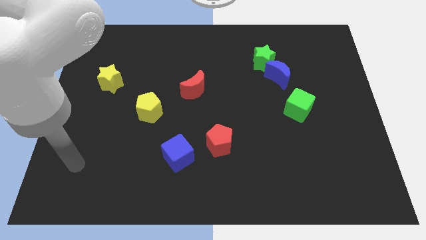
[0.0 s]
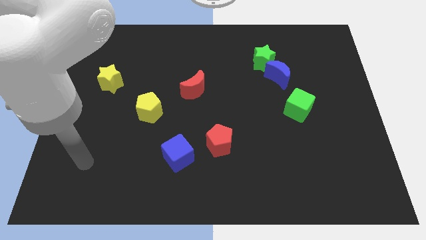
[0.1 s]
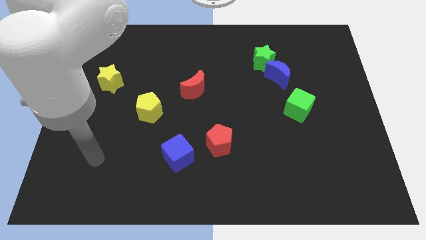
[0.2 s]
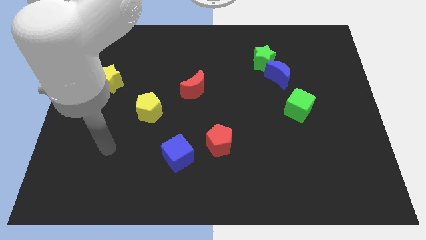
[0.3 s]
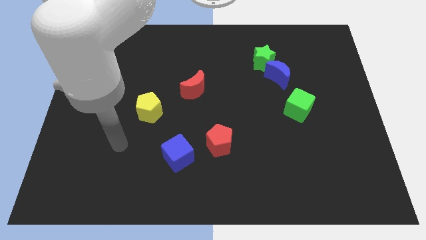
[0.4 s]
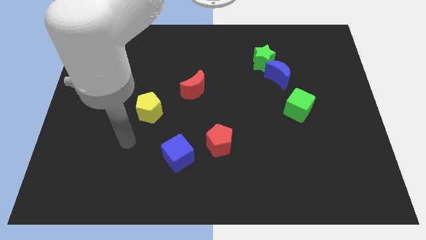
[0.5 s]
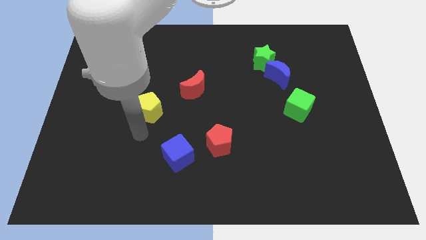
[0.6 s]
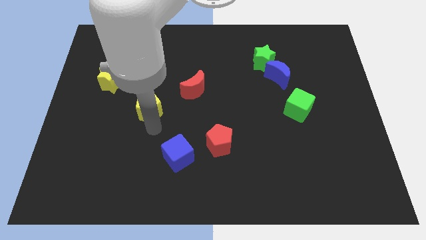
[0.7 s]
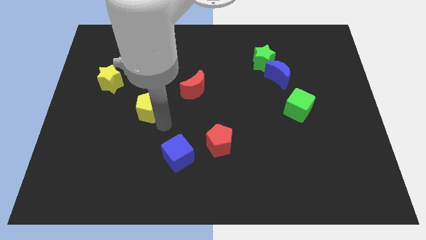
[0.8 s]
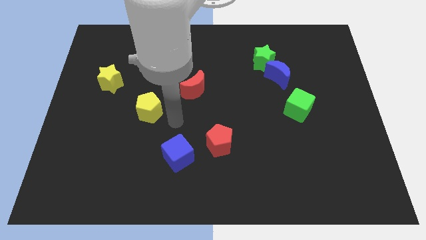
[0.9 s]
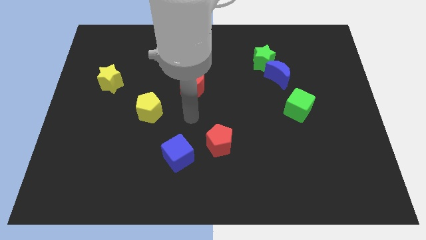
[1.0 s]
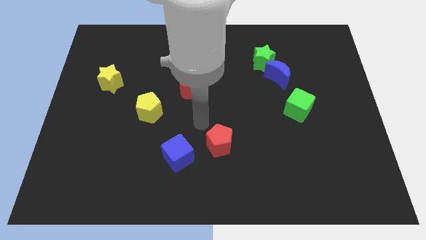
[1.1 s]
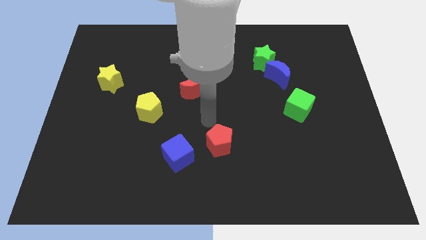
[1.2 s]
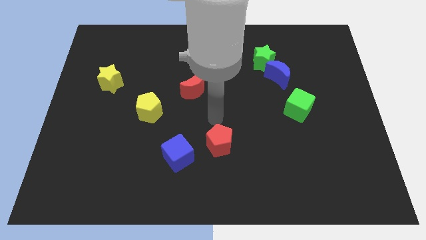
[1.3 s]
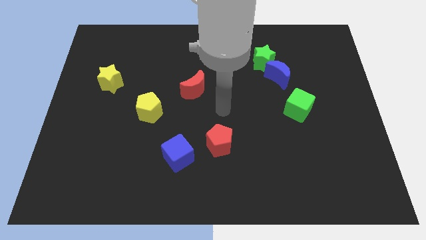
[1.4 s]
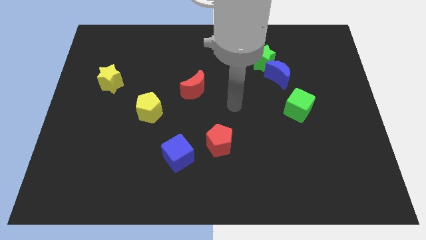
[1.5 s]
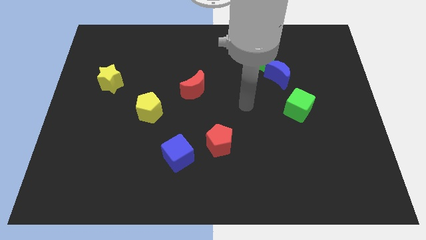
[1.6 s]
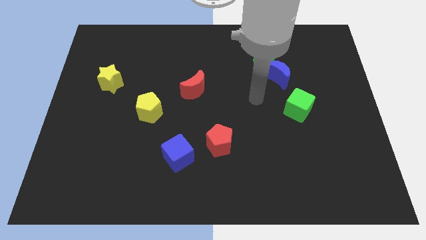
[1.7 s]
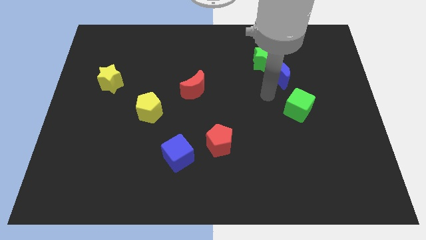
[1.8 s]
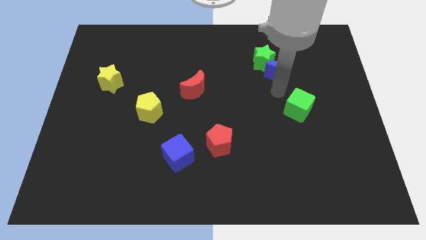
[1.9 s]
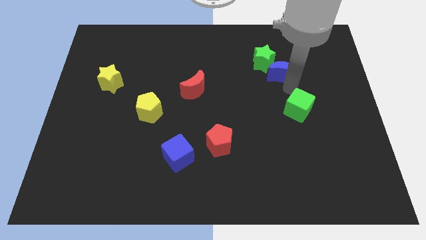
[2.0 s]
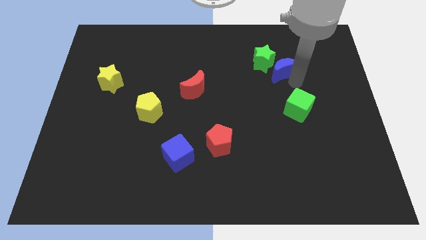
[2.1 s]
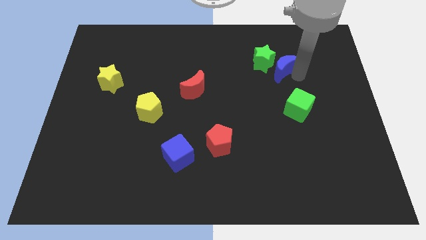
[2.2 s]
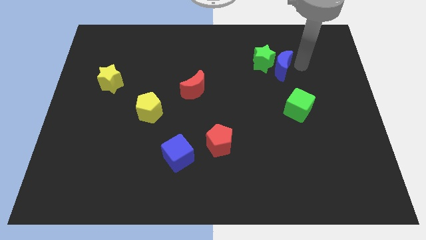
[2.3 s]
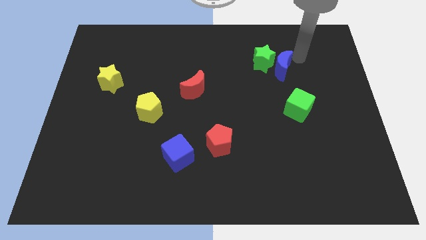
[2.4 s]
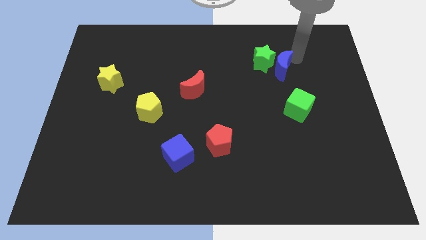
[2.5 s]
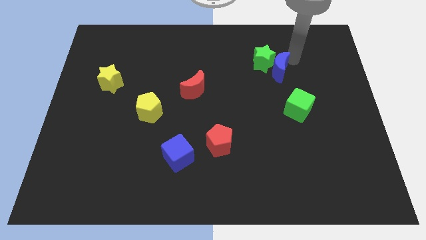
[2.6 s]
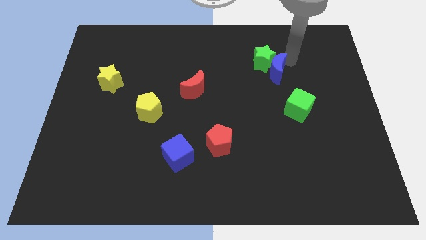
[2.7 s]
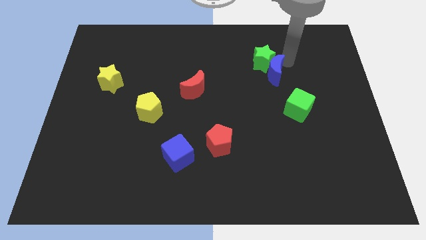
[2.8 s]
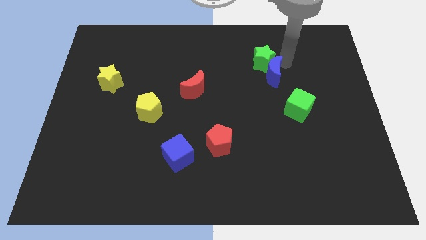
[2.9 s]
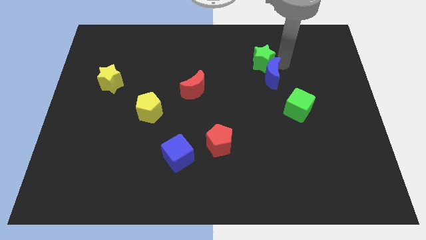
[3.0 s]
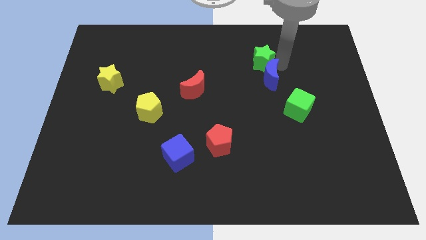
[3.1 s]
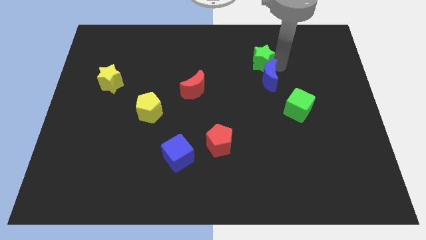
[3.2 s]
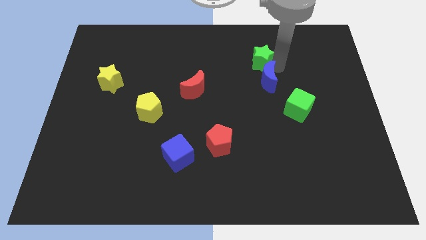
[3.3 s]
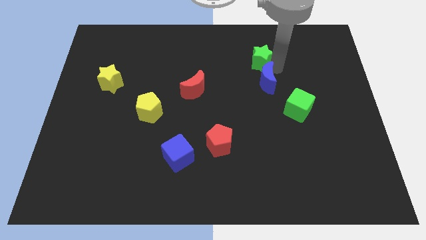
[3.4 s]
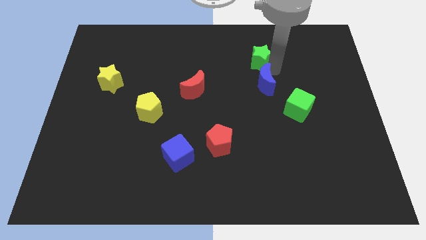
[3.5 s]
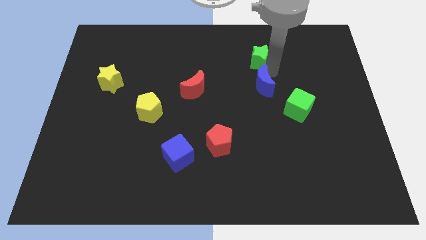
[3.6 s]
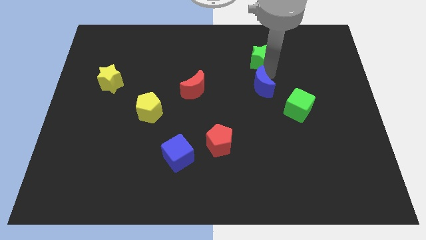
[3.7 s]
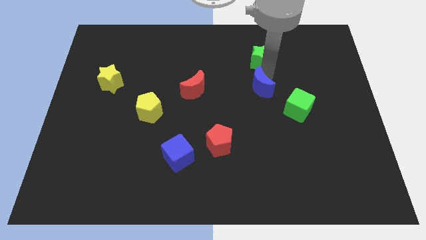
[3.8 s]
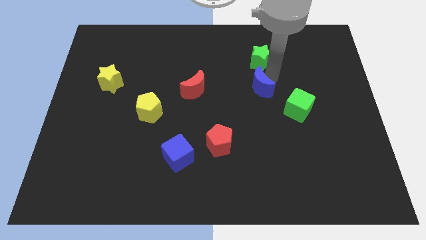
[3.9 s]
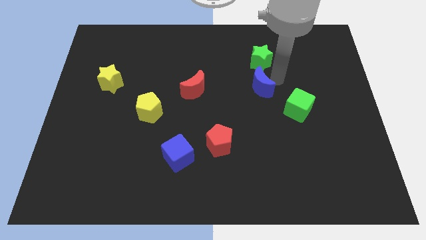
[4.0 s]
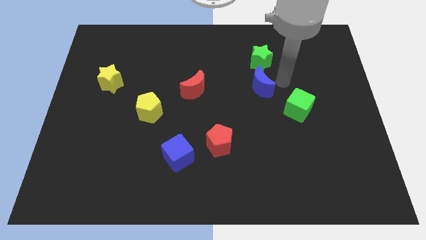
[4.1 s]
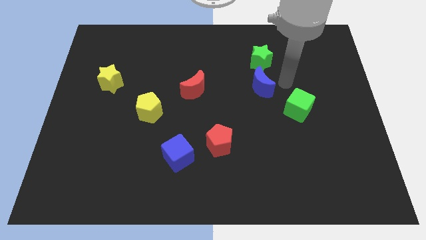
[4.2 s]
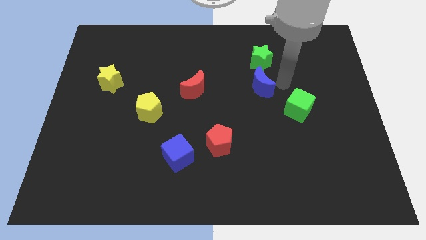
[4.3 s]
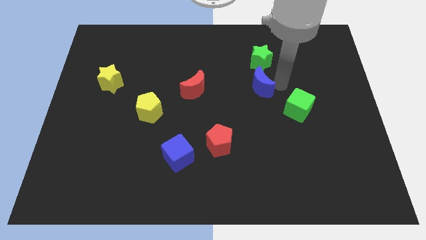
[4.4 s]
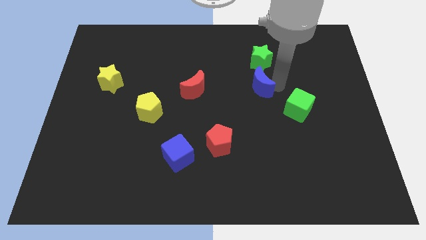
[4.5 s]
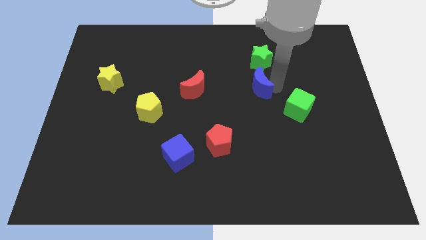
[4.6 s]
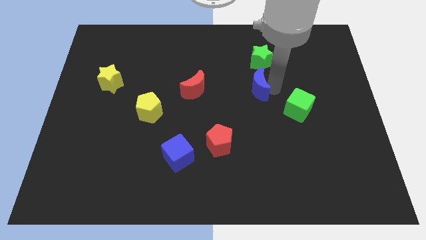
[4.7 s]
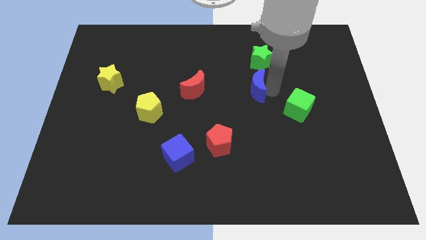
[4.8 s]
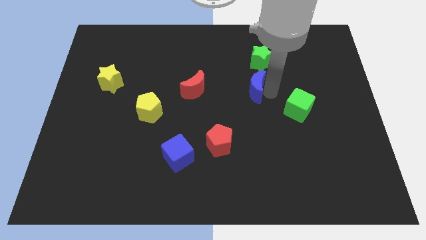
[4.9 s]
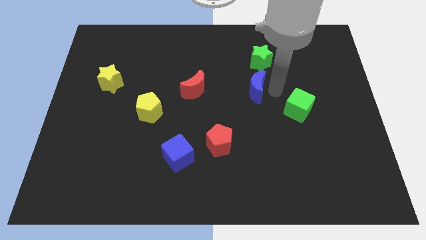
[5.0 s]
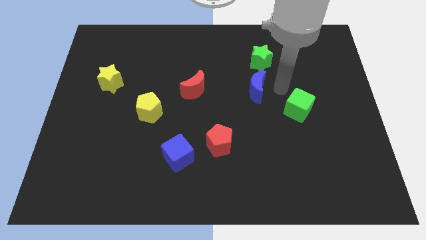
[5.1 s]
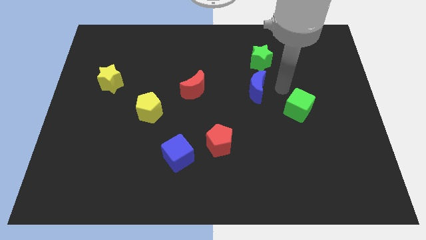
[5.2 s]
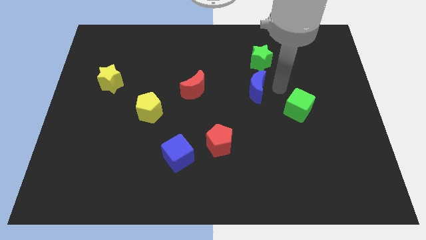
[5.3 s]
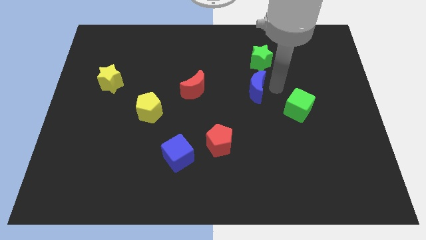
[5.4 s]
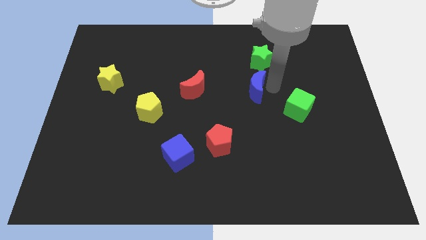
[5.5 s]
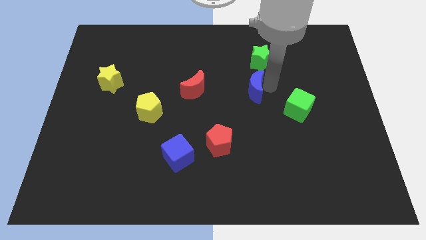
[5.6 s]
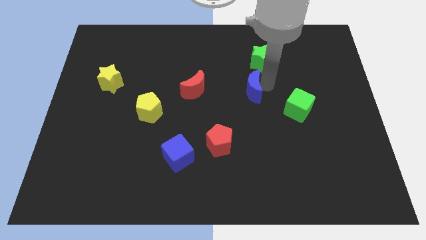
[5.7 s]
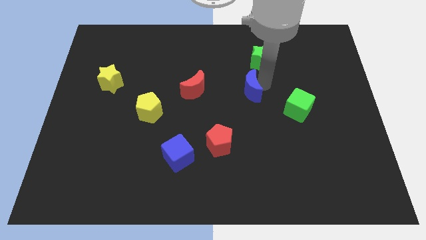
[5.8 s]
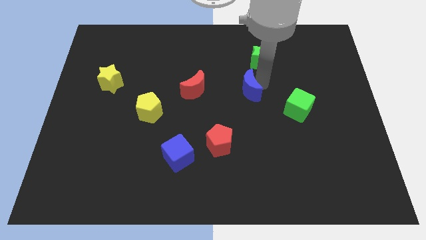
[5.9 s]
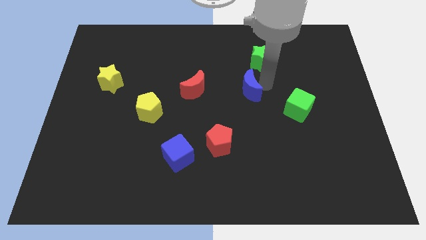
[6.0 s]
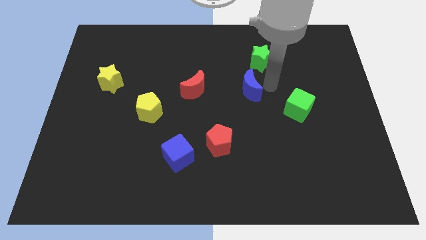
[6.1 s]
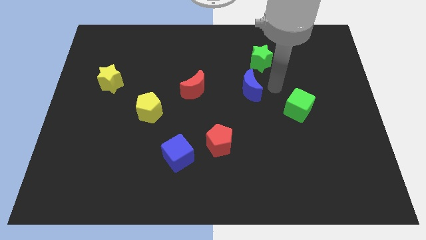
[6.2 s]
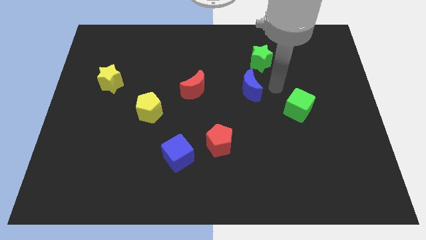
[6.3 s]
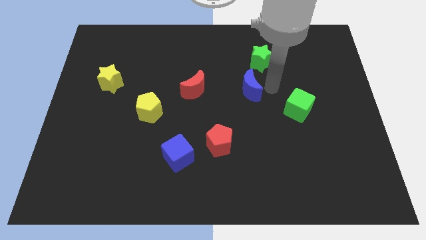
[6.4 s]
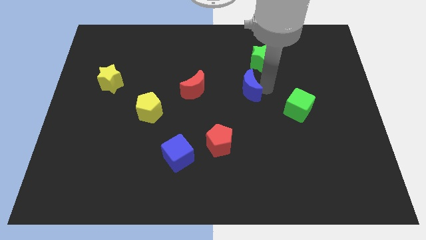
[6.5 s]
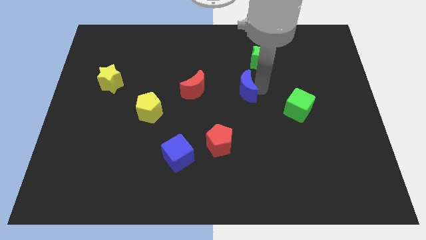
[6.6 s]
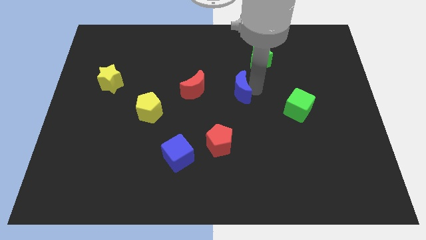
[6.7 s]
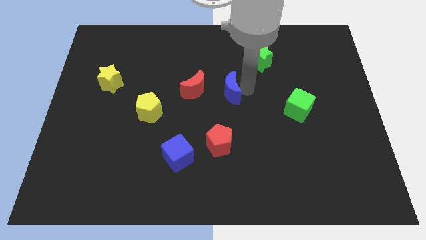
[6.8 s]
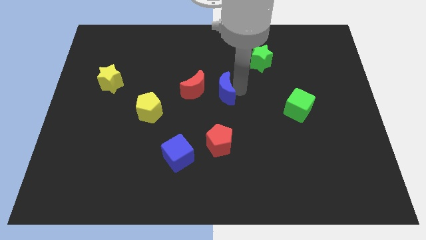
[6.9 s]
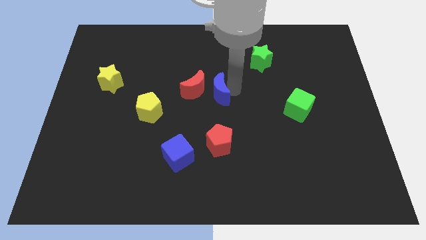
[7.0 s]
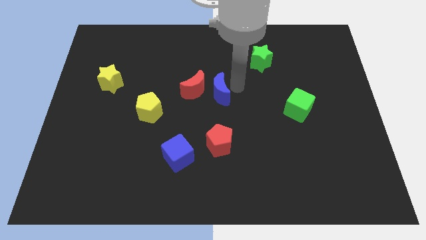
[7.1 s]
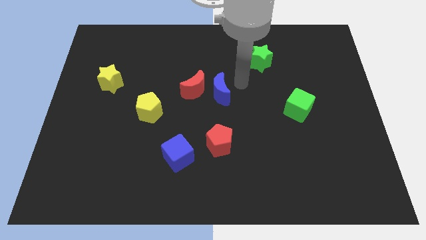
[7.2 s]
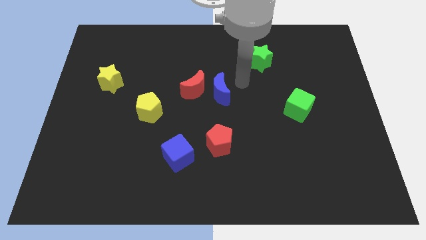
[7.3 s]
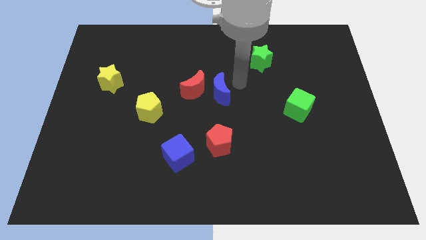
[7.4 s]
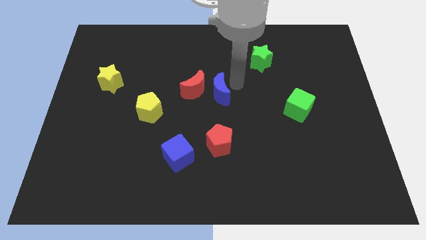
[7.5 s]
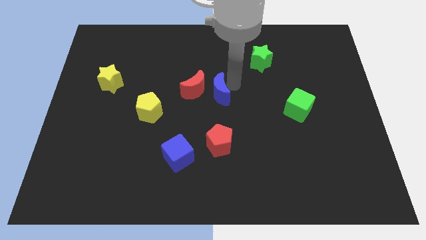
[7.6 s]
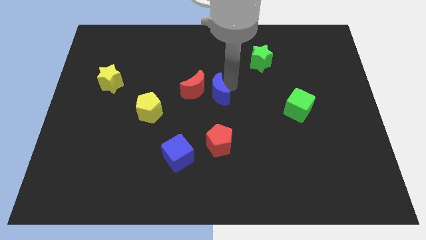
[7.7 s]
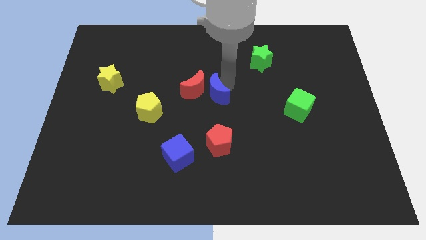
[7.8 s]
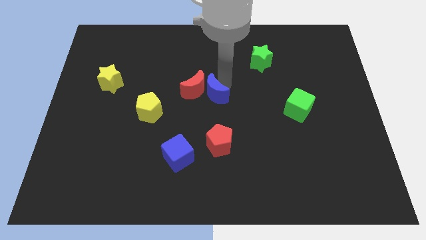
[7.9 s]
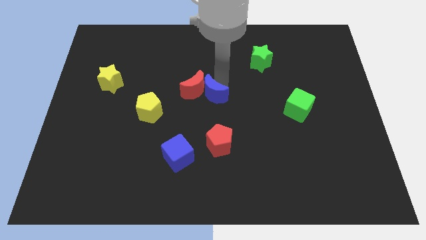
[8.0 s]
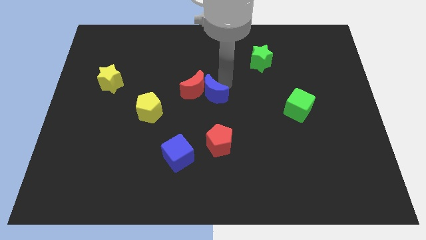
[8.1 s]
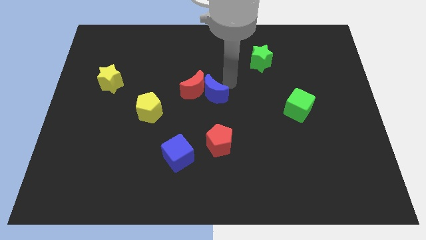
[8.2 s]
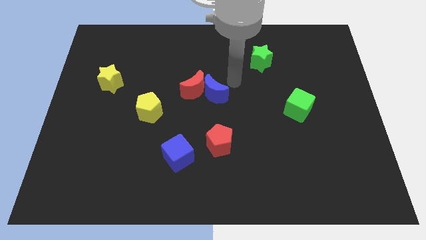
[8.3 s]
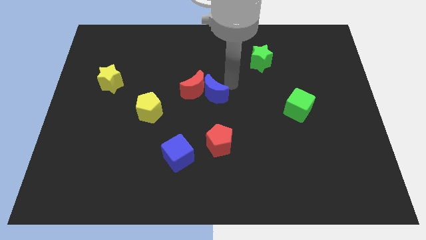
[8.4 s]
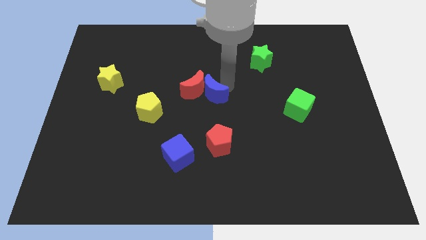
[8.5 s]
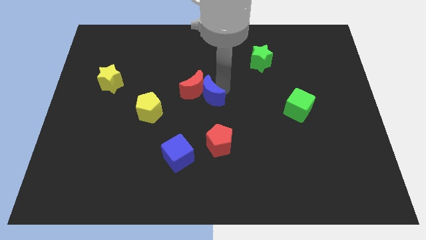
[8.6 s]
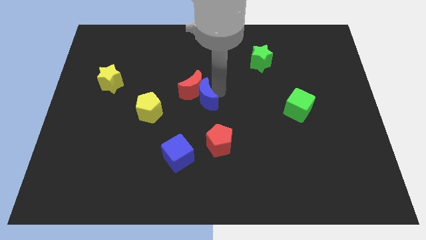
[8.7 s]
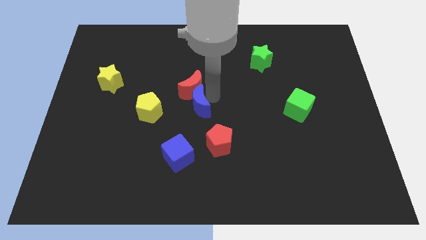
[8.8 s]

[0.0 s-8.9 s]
put the blue moon to the bottom left side of the red moon
